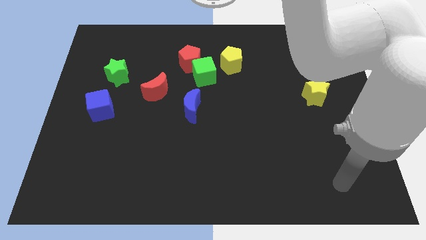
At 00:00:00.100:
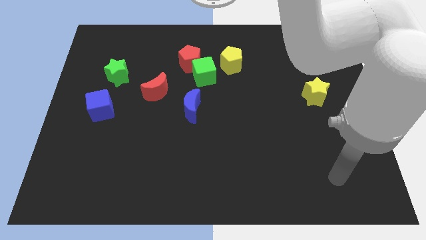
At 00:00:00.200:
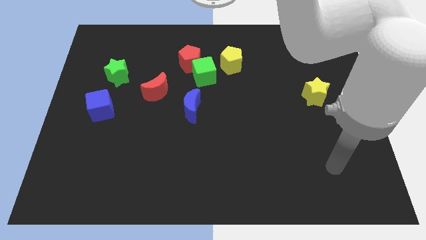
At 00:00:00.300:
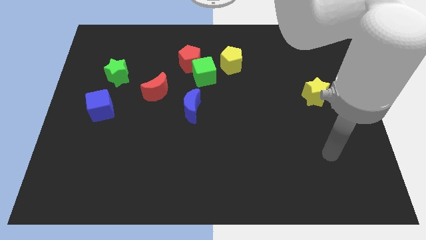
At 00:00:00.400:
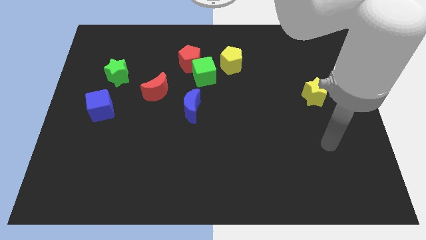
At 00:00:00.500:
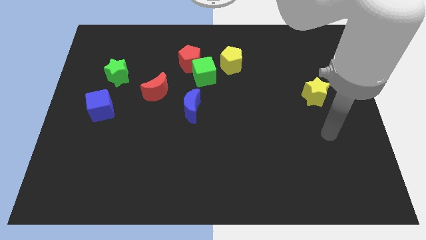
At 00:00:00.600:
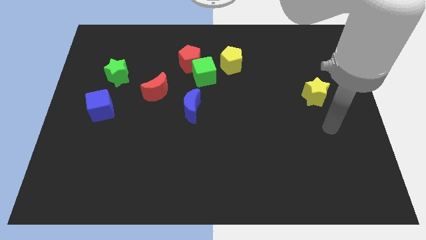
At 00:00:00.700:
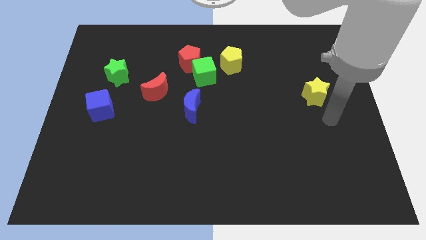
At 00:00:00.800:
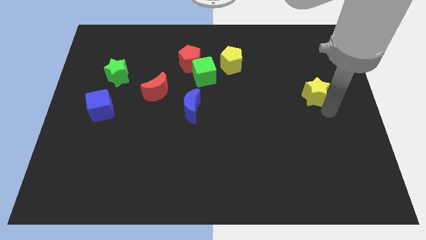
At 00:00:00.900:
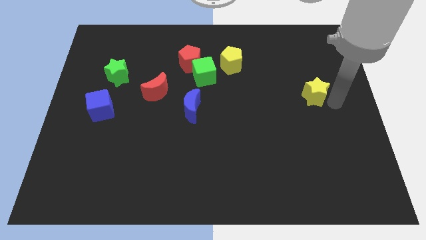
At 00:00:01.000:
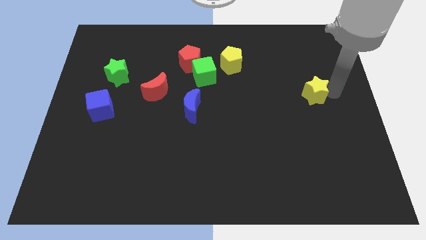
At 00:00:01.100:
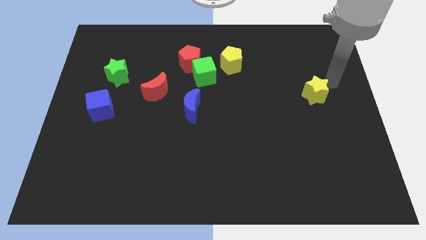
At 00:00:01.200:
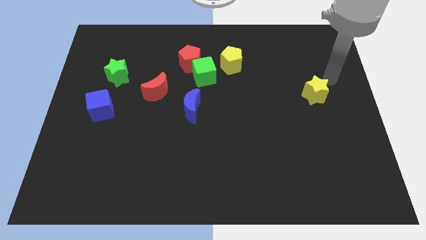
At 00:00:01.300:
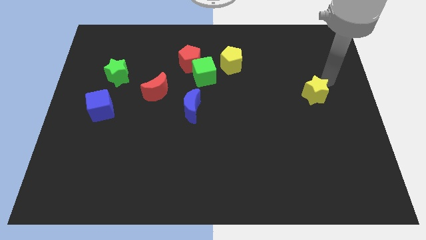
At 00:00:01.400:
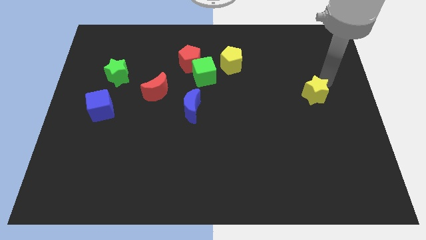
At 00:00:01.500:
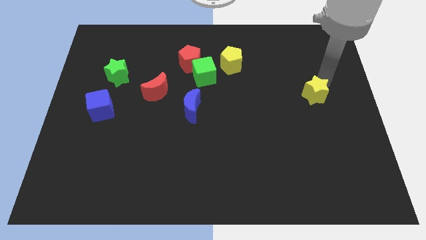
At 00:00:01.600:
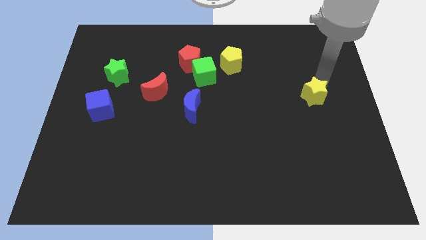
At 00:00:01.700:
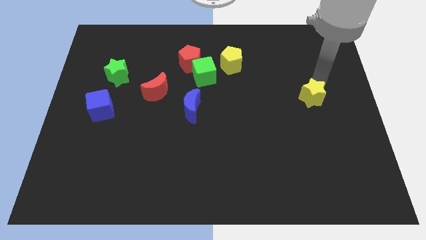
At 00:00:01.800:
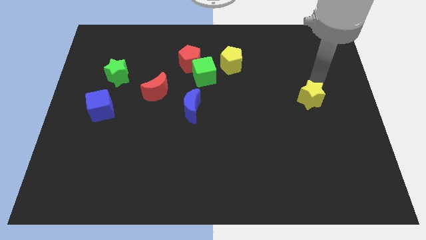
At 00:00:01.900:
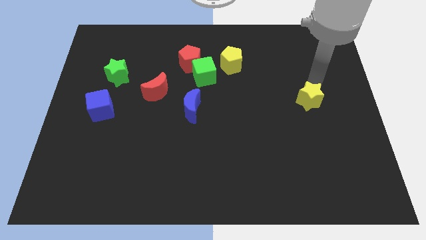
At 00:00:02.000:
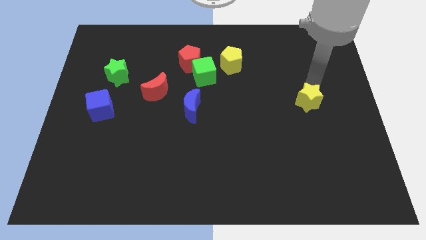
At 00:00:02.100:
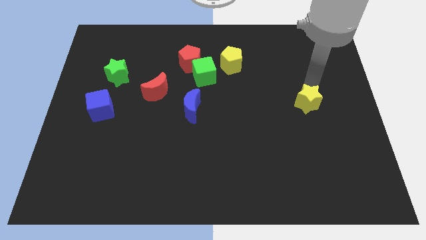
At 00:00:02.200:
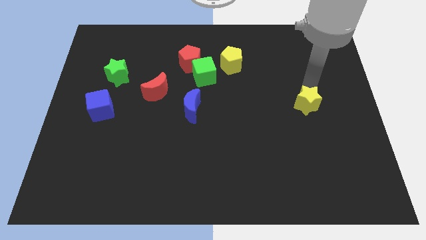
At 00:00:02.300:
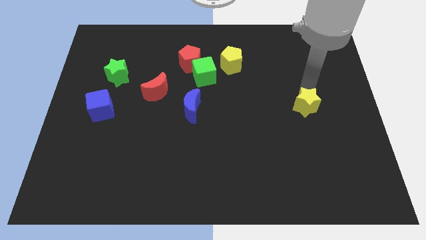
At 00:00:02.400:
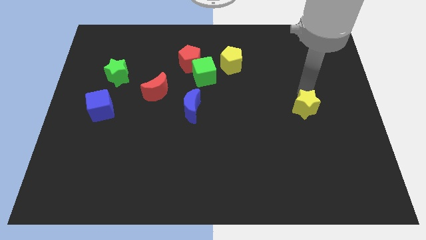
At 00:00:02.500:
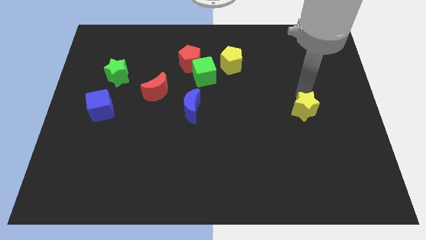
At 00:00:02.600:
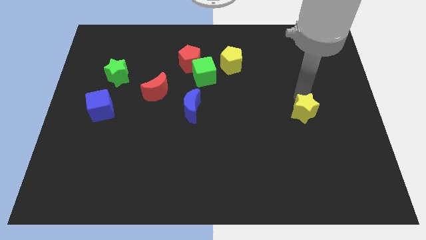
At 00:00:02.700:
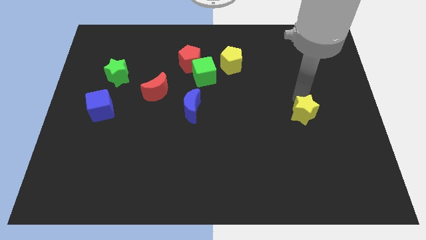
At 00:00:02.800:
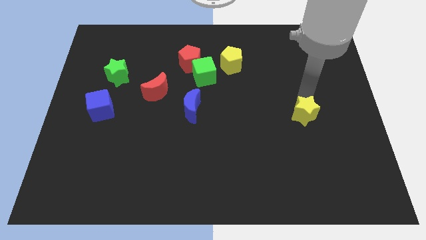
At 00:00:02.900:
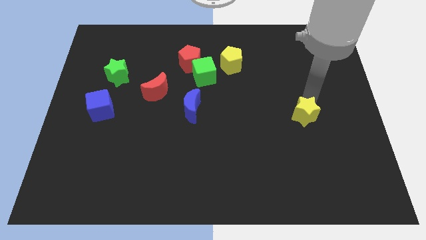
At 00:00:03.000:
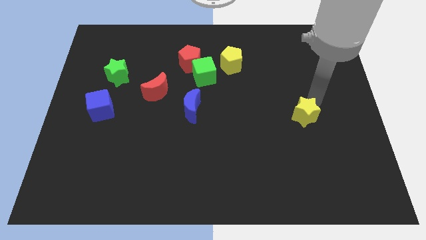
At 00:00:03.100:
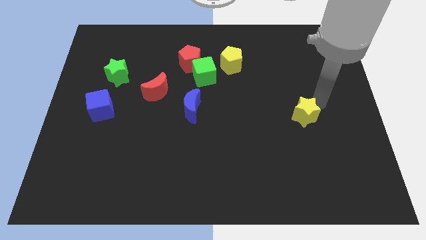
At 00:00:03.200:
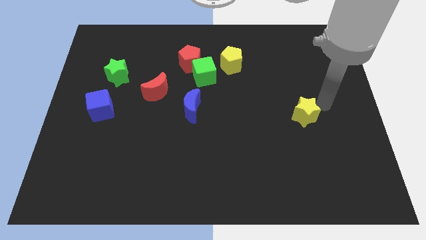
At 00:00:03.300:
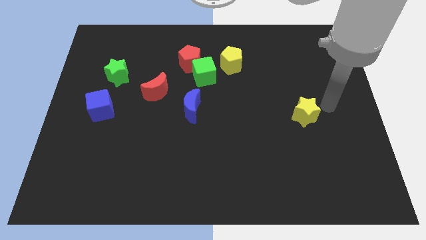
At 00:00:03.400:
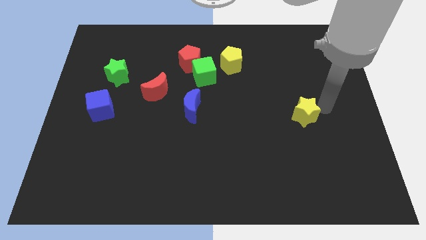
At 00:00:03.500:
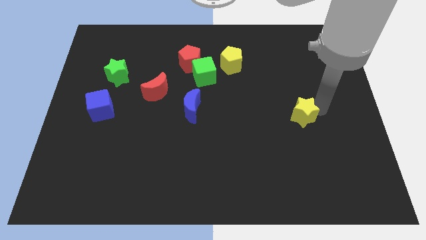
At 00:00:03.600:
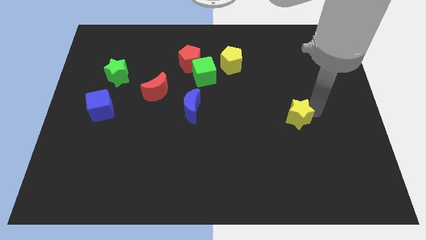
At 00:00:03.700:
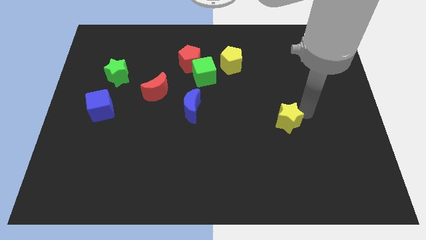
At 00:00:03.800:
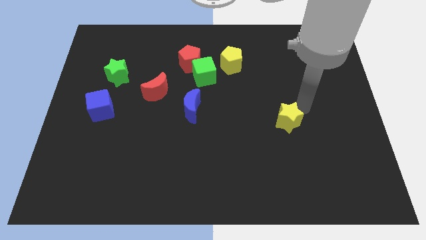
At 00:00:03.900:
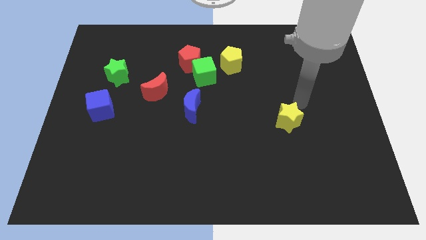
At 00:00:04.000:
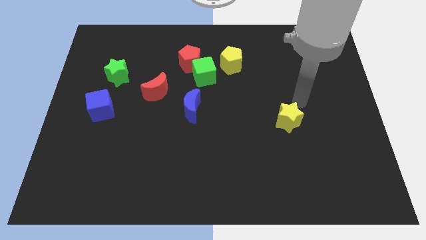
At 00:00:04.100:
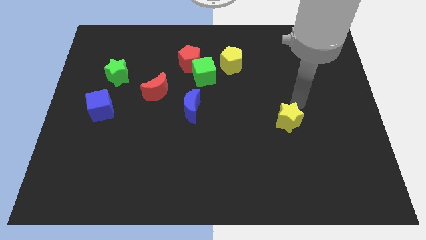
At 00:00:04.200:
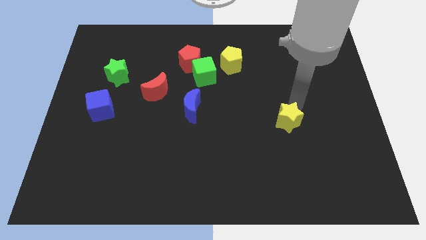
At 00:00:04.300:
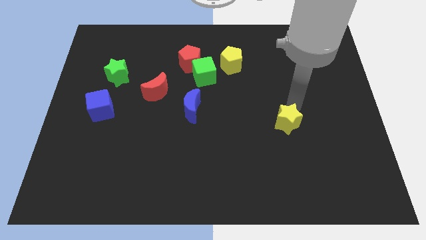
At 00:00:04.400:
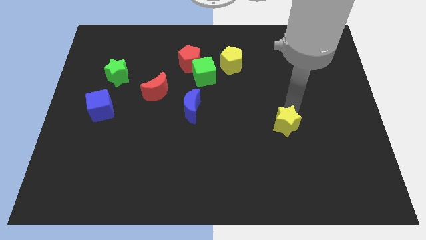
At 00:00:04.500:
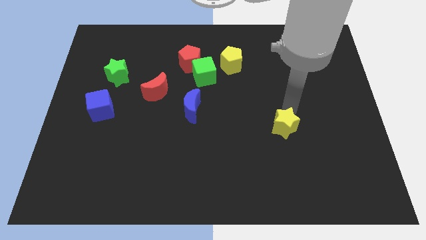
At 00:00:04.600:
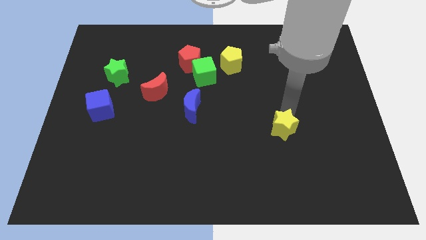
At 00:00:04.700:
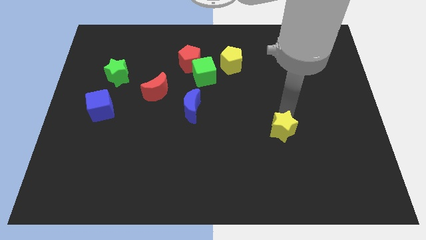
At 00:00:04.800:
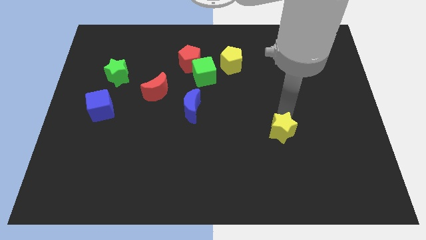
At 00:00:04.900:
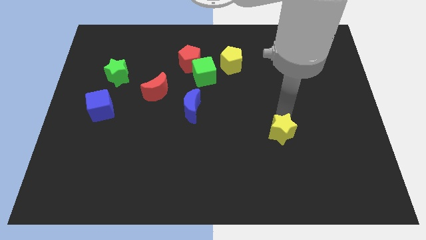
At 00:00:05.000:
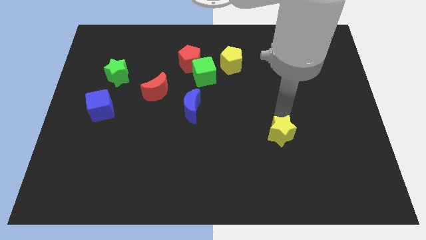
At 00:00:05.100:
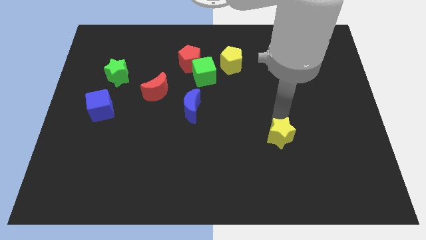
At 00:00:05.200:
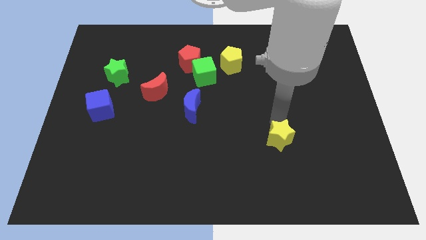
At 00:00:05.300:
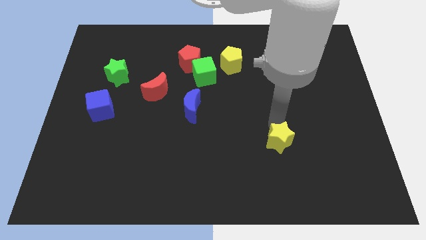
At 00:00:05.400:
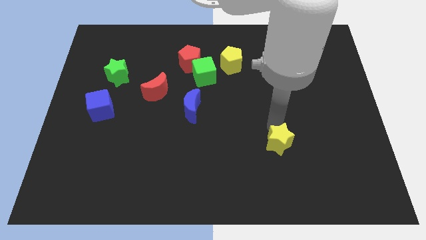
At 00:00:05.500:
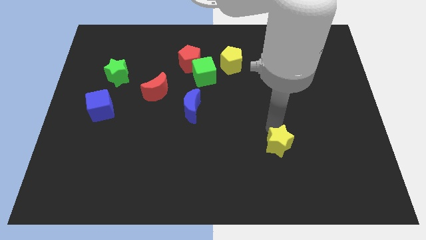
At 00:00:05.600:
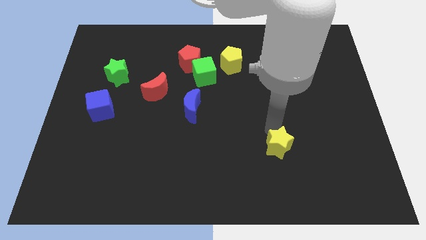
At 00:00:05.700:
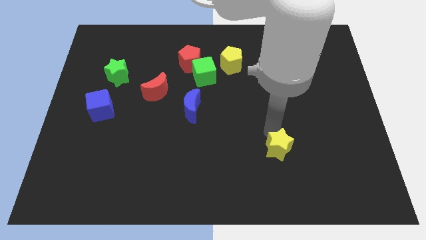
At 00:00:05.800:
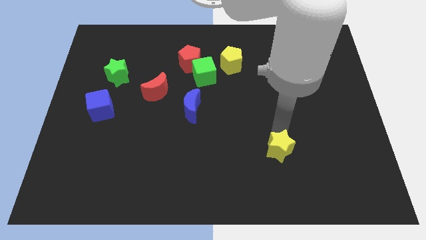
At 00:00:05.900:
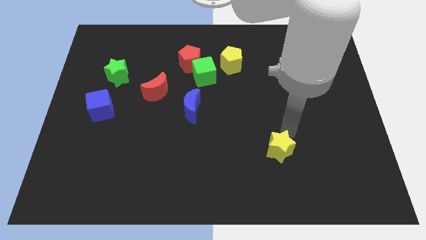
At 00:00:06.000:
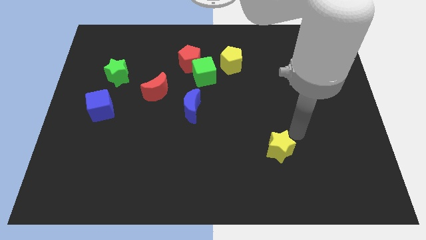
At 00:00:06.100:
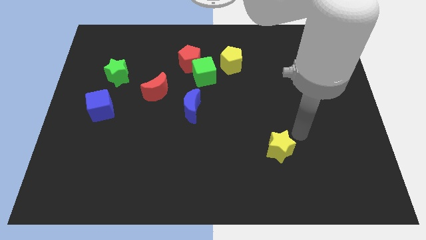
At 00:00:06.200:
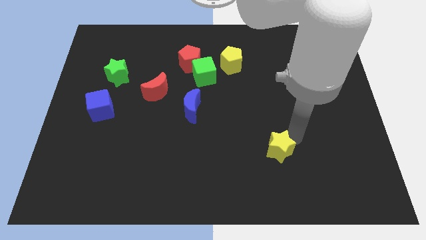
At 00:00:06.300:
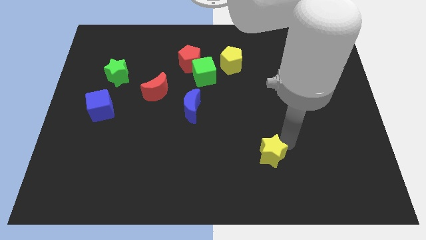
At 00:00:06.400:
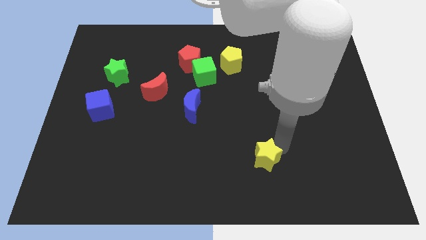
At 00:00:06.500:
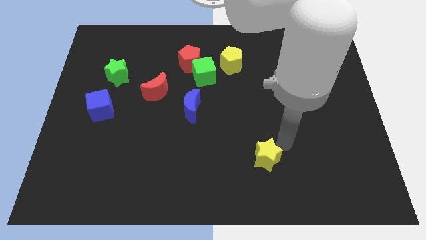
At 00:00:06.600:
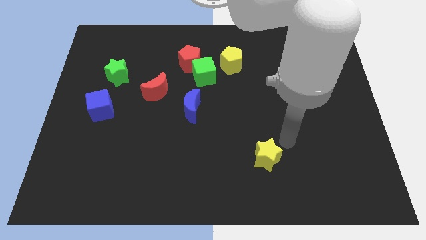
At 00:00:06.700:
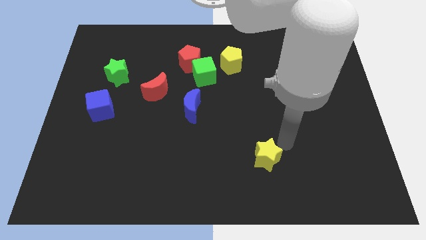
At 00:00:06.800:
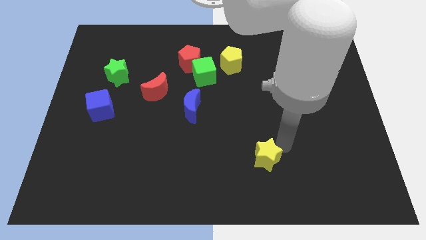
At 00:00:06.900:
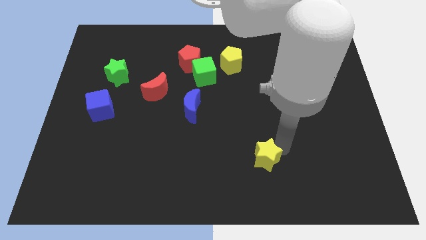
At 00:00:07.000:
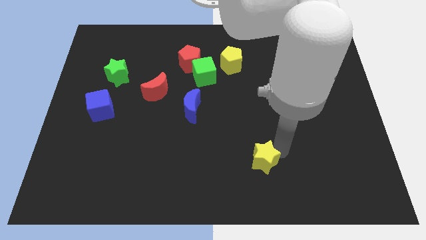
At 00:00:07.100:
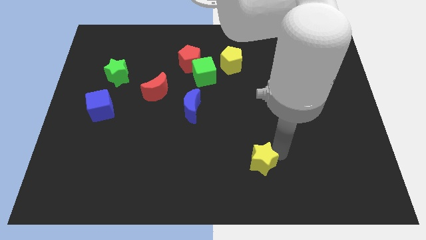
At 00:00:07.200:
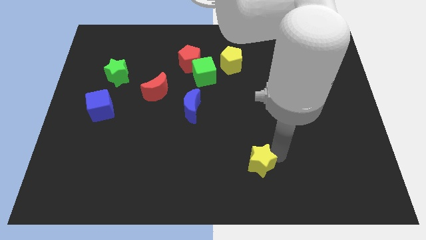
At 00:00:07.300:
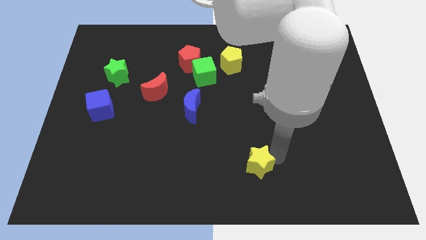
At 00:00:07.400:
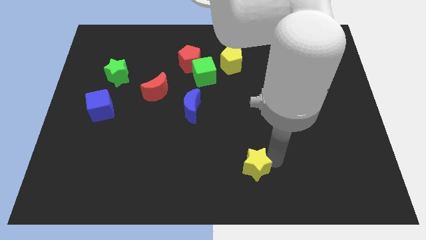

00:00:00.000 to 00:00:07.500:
put the yellow star to the bottom
